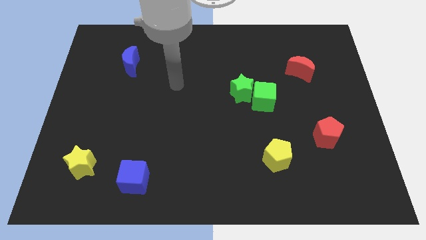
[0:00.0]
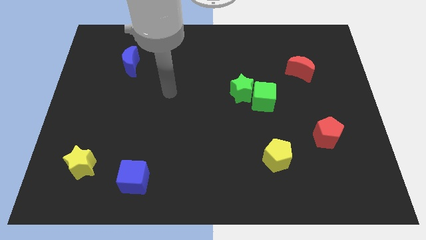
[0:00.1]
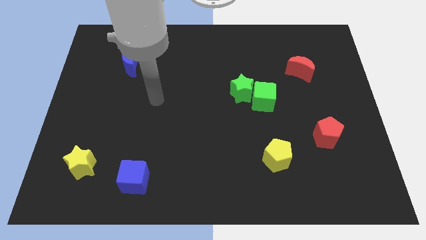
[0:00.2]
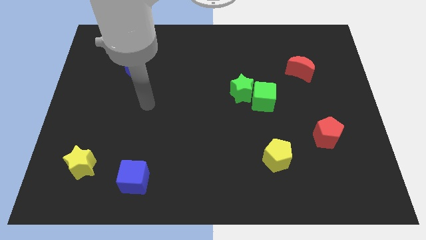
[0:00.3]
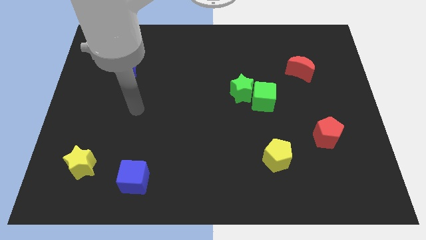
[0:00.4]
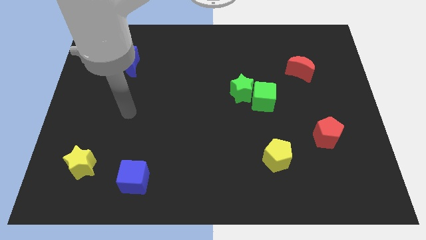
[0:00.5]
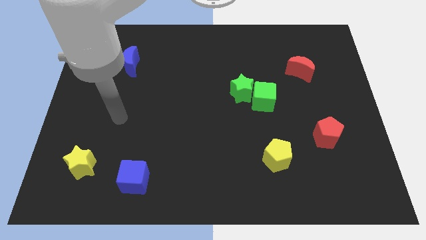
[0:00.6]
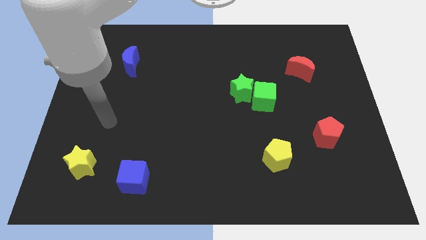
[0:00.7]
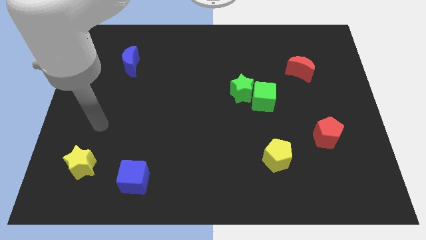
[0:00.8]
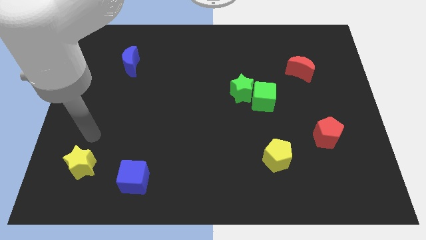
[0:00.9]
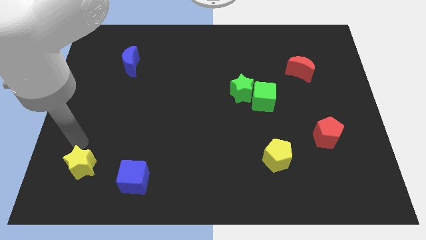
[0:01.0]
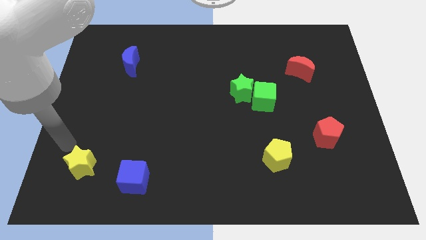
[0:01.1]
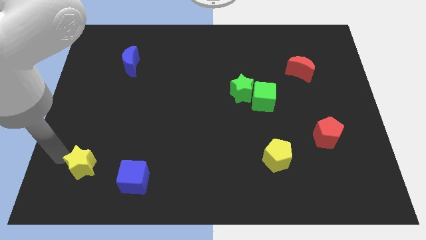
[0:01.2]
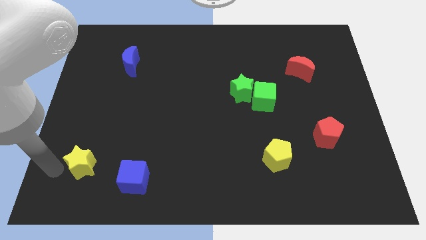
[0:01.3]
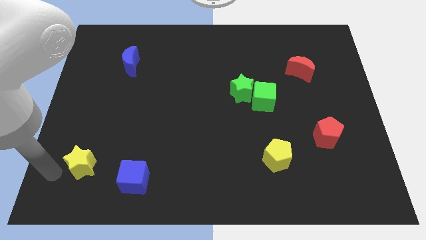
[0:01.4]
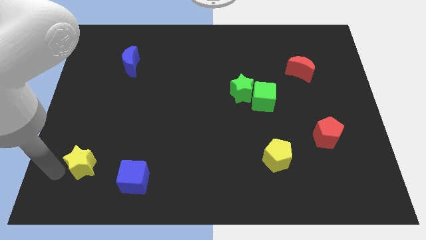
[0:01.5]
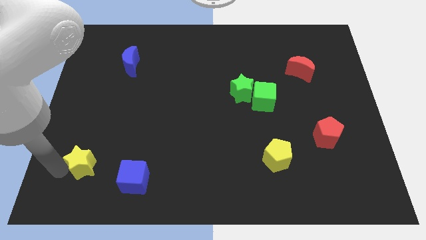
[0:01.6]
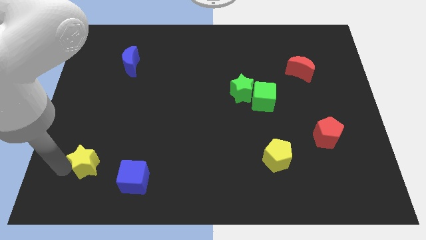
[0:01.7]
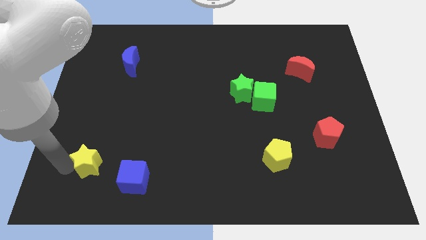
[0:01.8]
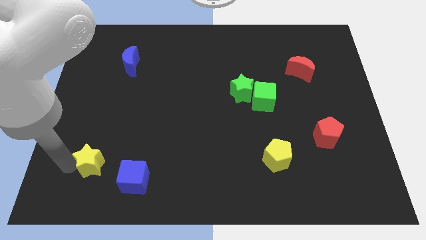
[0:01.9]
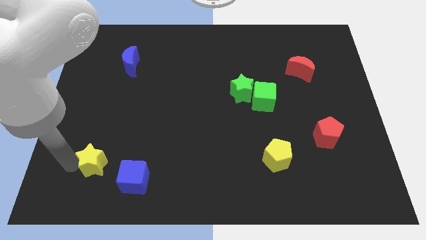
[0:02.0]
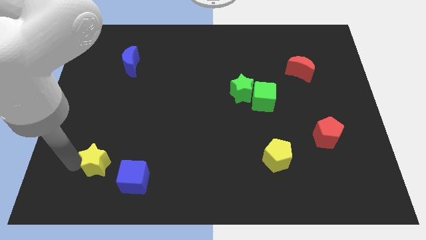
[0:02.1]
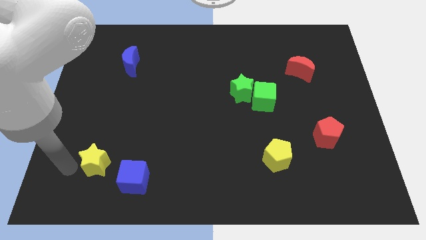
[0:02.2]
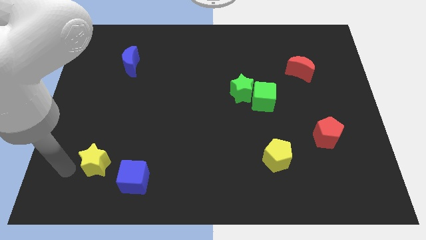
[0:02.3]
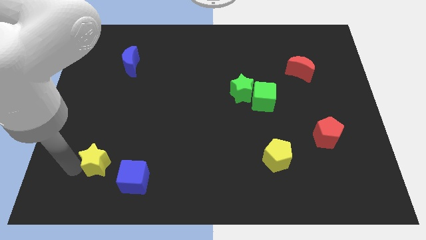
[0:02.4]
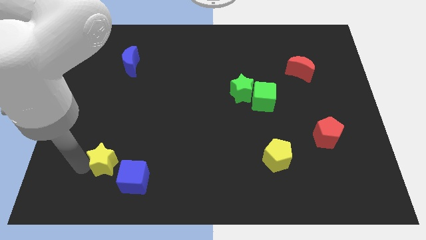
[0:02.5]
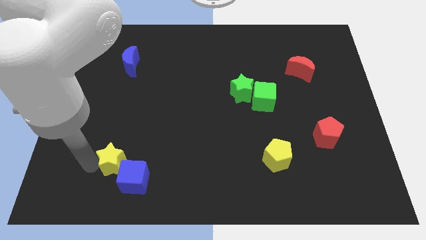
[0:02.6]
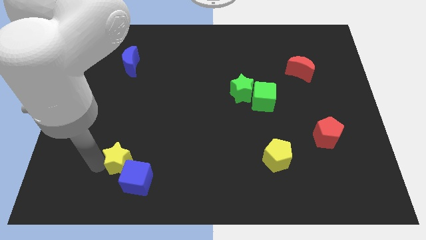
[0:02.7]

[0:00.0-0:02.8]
slightly move the yellow star right

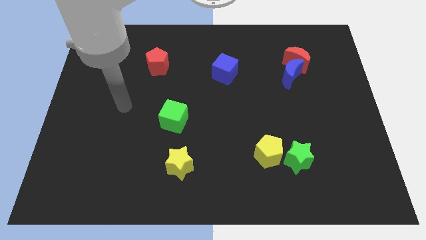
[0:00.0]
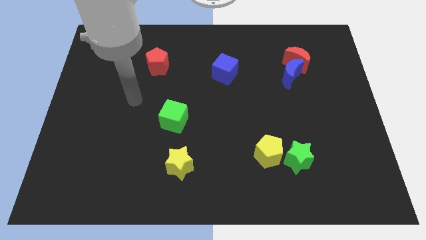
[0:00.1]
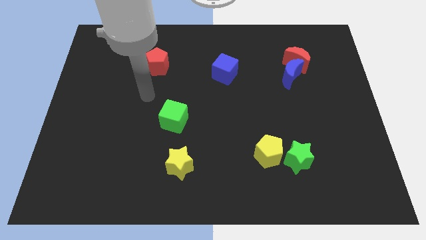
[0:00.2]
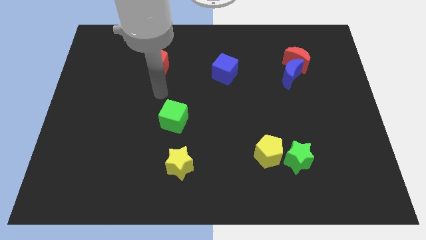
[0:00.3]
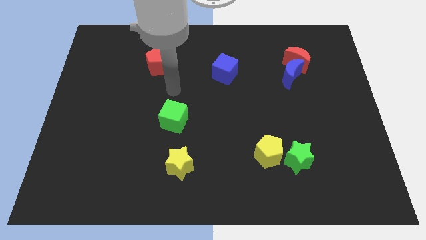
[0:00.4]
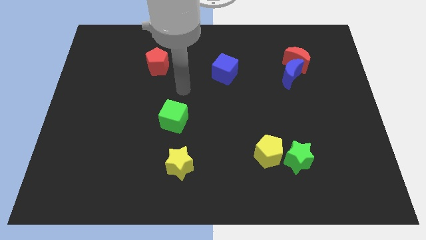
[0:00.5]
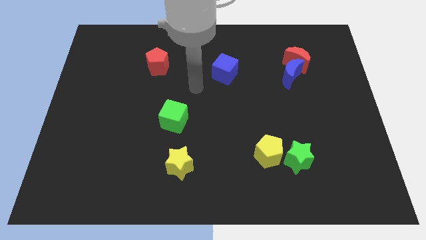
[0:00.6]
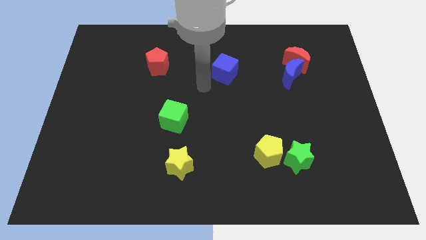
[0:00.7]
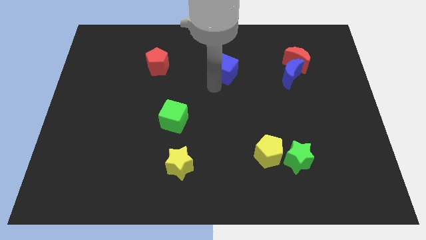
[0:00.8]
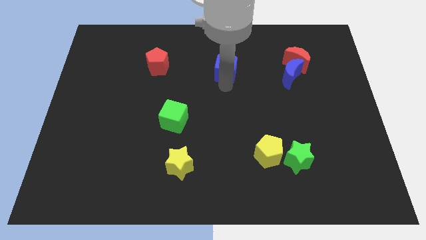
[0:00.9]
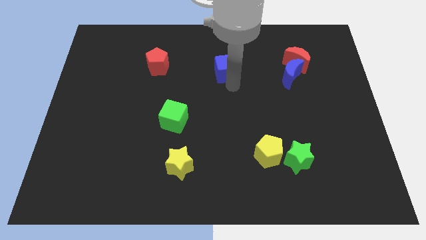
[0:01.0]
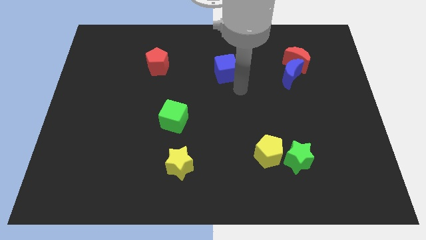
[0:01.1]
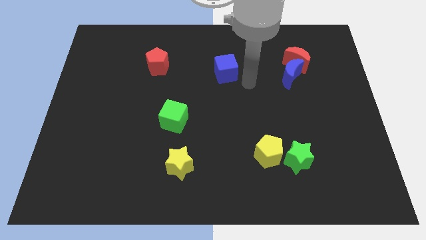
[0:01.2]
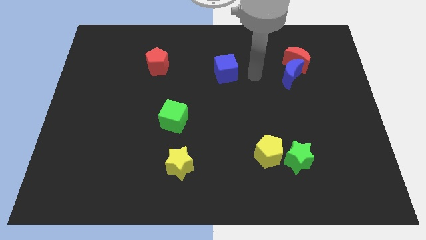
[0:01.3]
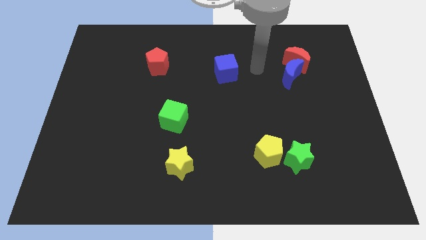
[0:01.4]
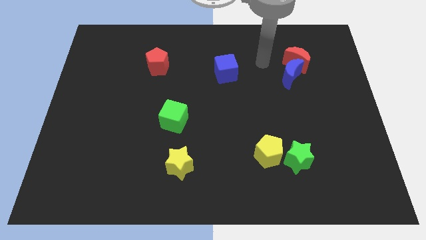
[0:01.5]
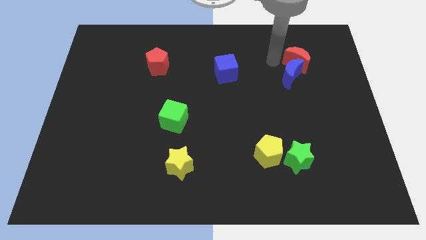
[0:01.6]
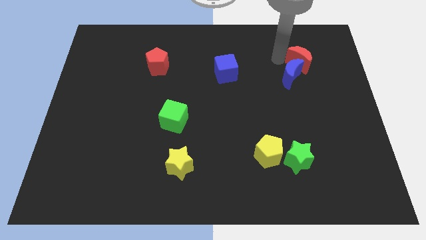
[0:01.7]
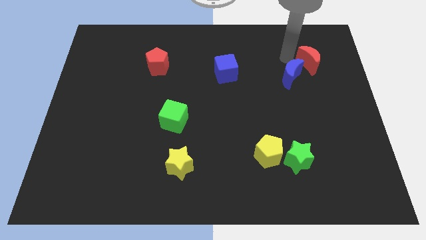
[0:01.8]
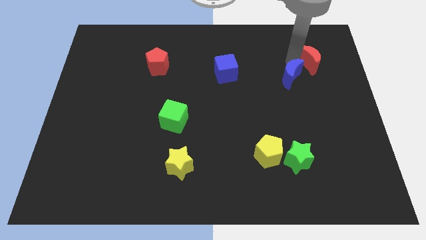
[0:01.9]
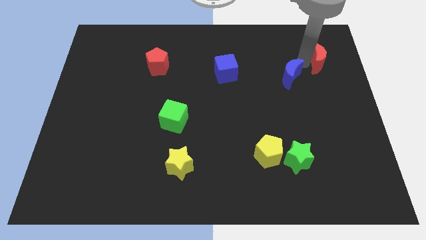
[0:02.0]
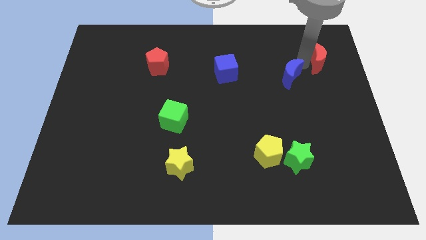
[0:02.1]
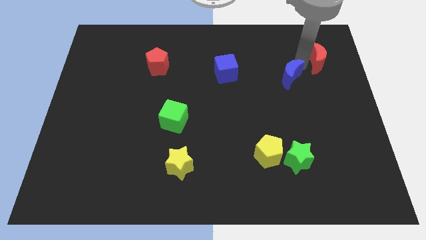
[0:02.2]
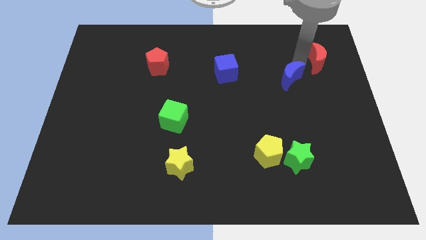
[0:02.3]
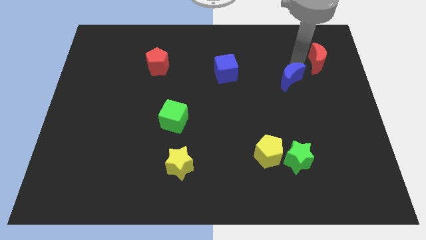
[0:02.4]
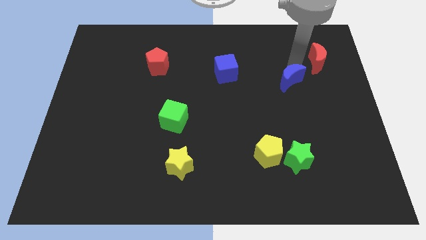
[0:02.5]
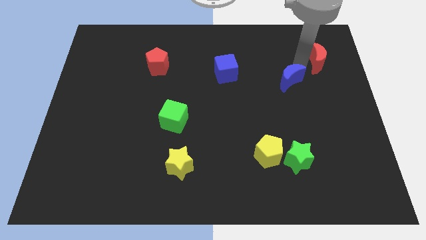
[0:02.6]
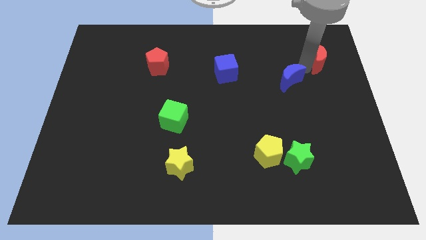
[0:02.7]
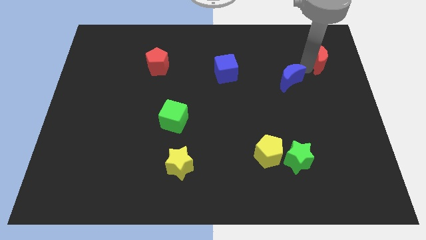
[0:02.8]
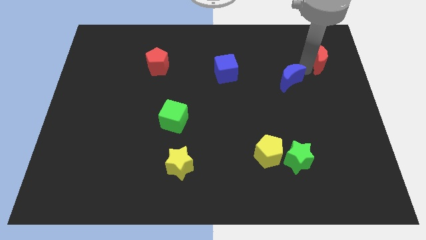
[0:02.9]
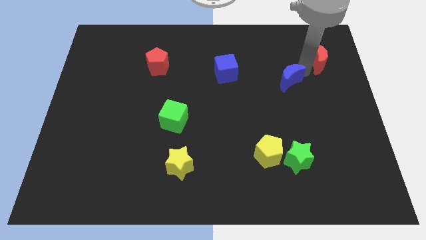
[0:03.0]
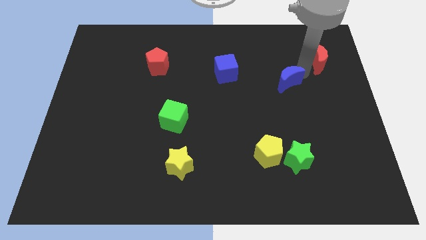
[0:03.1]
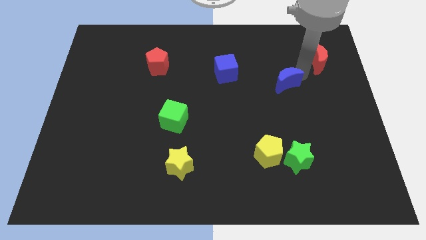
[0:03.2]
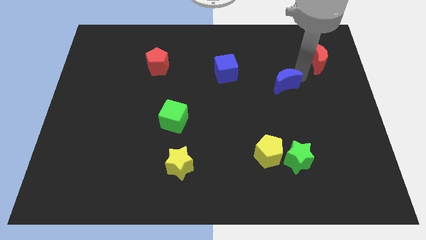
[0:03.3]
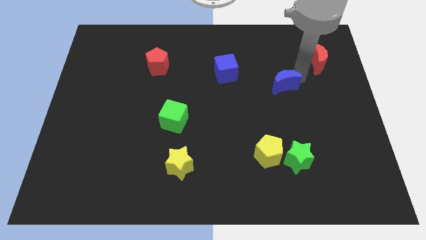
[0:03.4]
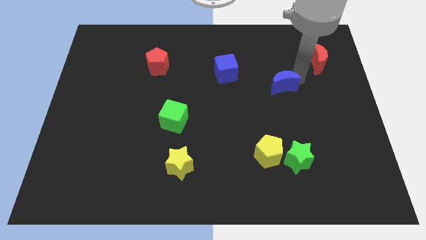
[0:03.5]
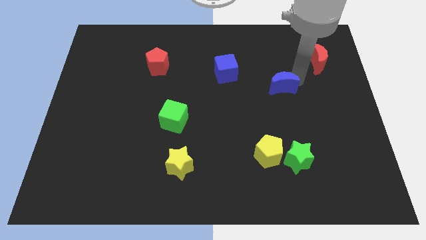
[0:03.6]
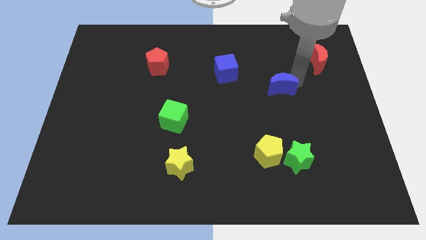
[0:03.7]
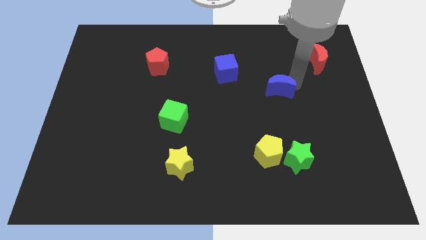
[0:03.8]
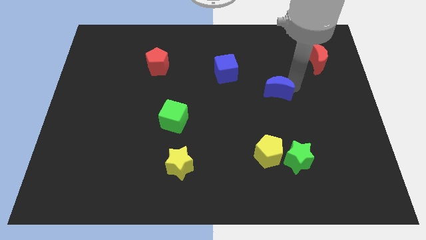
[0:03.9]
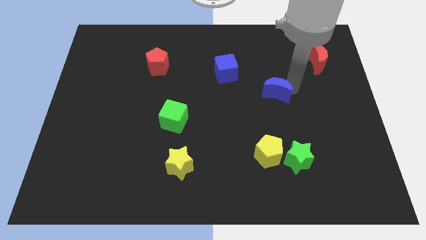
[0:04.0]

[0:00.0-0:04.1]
slightly push the blue moon downwards and to the left

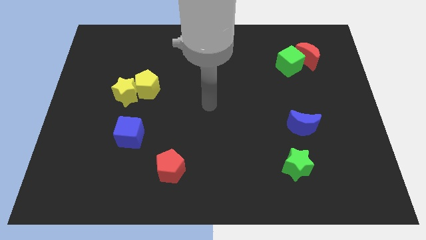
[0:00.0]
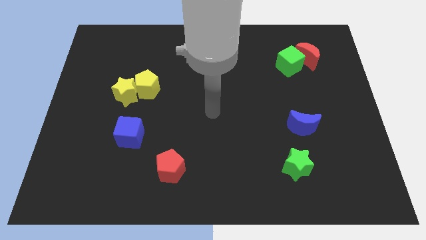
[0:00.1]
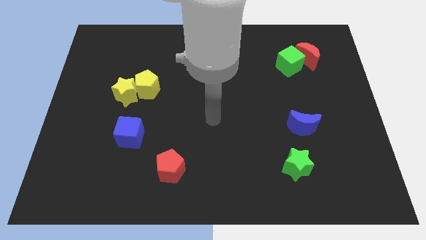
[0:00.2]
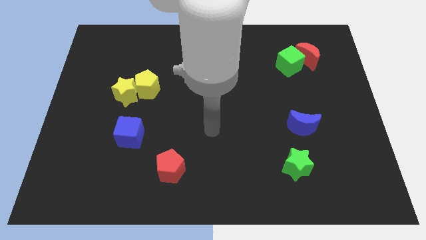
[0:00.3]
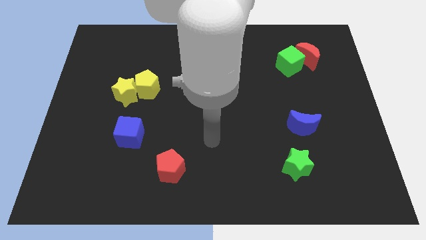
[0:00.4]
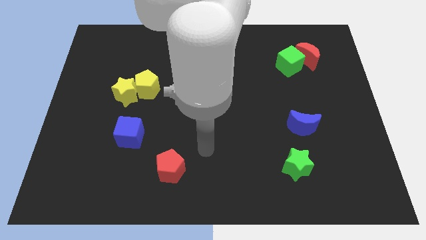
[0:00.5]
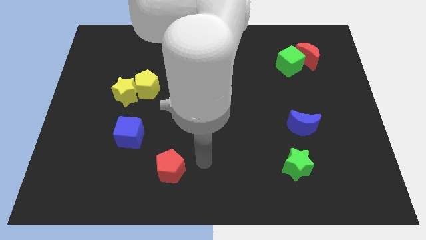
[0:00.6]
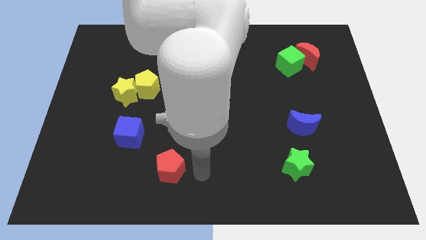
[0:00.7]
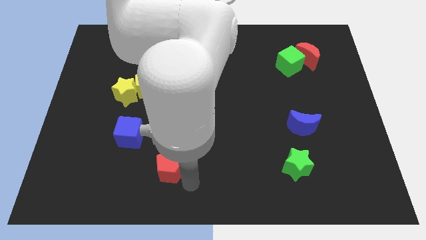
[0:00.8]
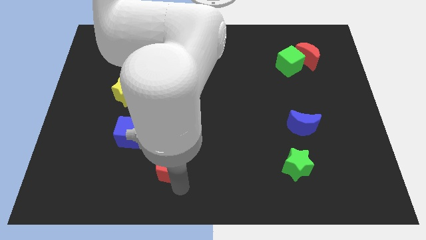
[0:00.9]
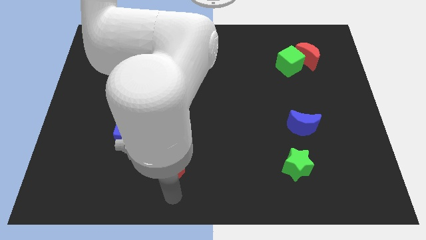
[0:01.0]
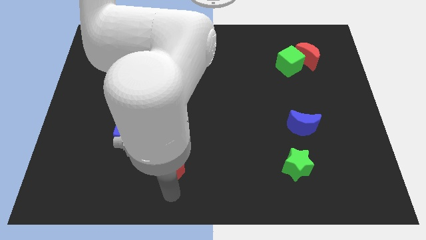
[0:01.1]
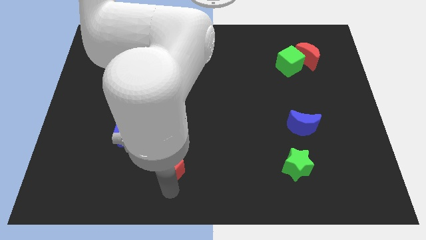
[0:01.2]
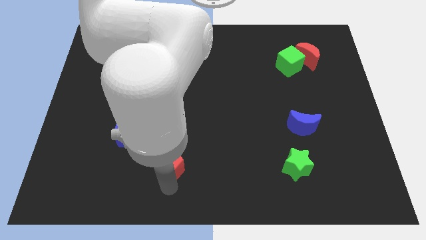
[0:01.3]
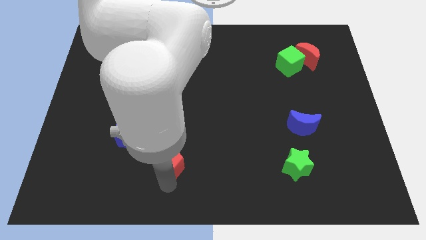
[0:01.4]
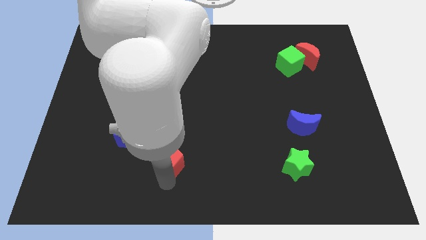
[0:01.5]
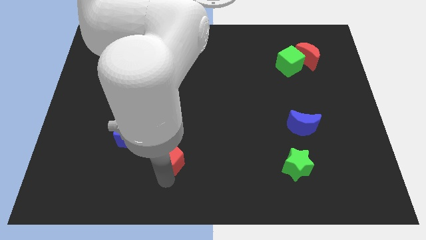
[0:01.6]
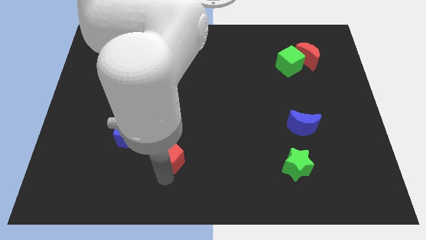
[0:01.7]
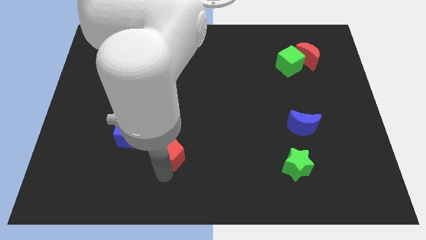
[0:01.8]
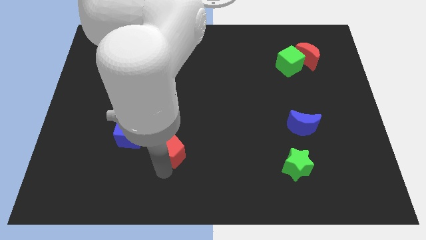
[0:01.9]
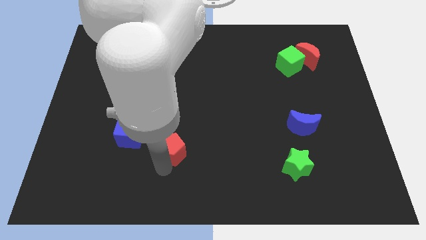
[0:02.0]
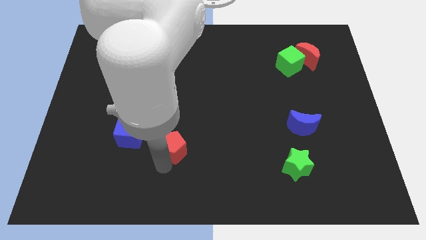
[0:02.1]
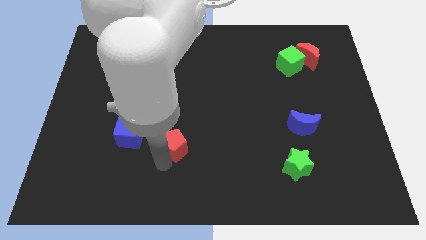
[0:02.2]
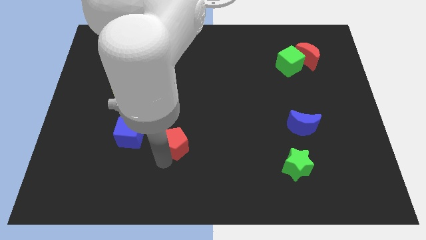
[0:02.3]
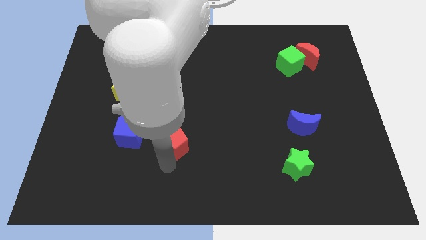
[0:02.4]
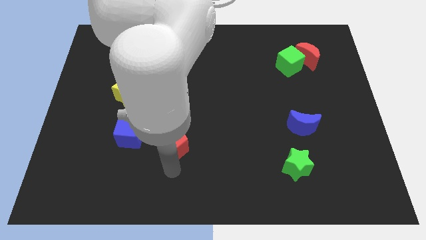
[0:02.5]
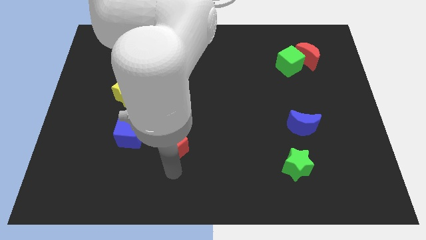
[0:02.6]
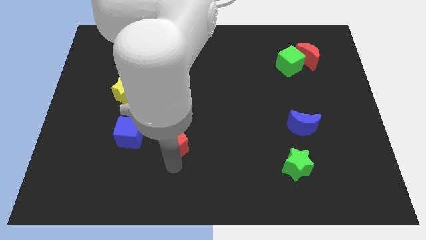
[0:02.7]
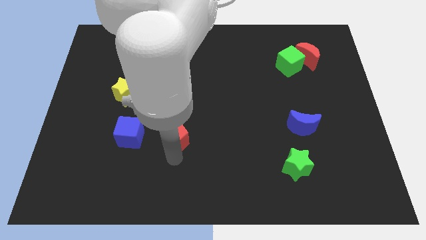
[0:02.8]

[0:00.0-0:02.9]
push the red pentagon somewhat up
